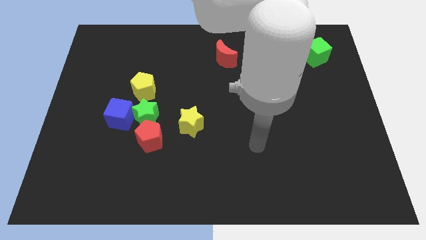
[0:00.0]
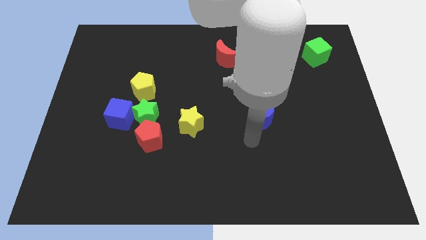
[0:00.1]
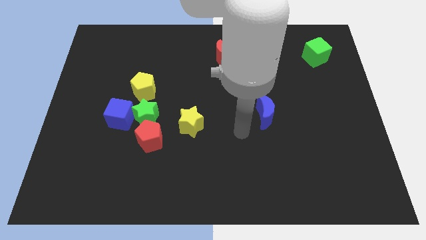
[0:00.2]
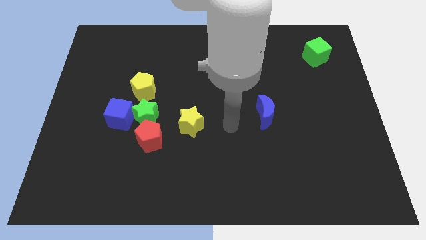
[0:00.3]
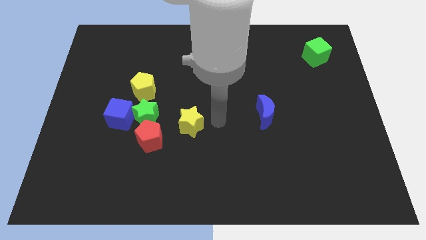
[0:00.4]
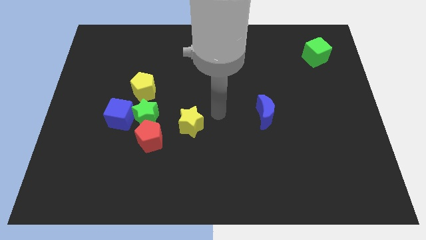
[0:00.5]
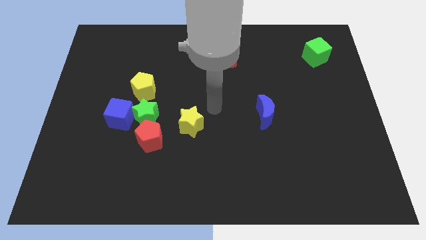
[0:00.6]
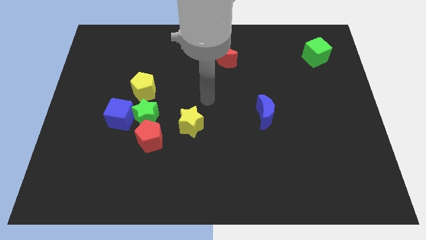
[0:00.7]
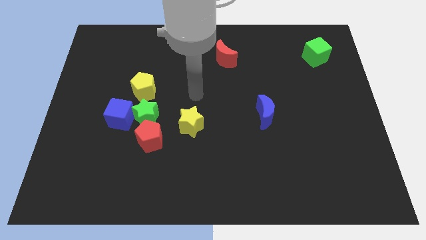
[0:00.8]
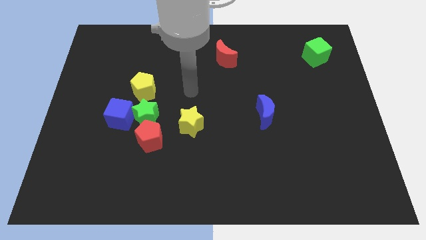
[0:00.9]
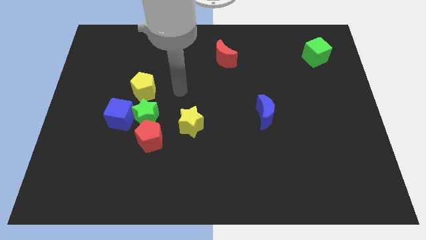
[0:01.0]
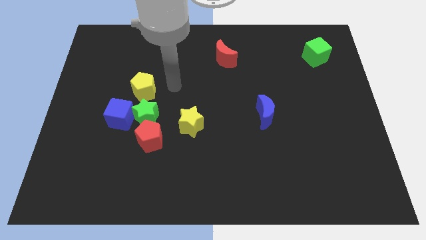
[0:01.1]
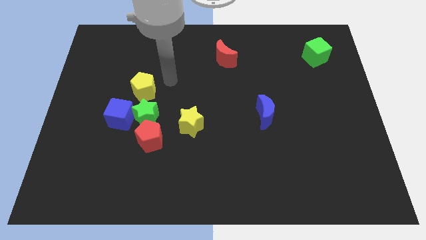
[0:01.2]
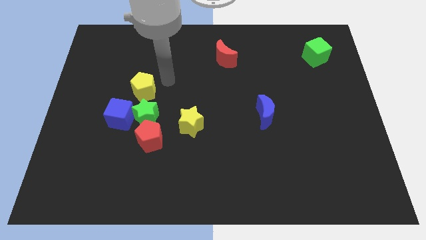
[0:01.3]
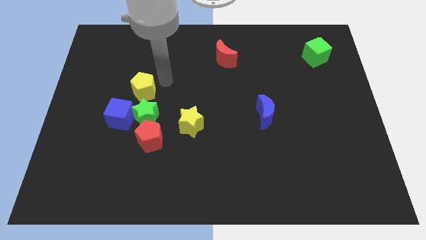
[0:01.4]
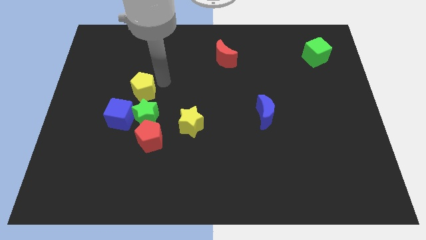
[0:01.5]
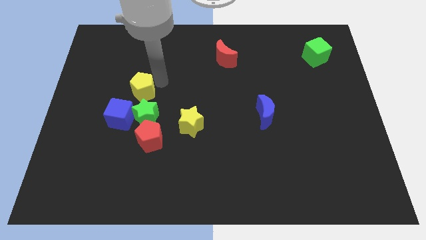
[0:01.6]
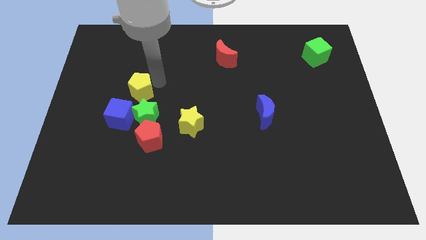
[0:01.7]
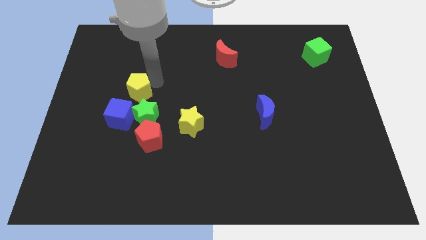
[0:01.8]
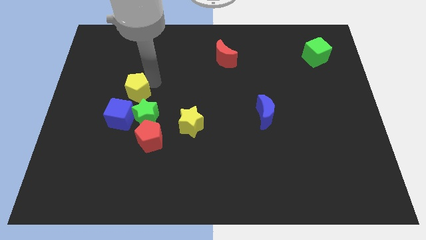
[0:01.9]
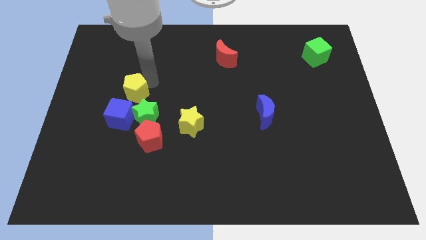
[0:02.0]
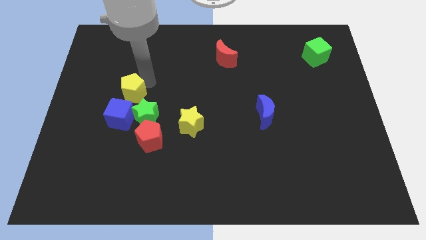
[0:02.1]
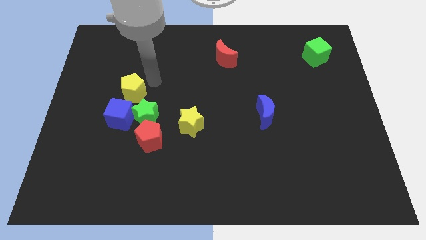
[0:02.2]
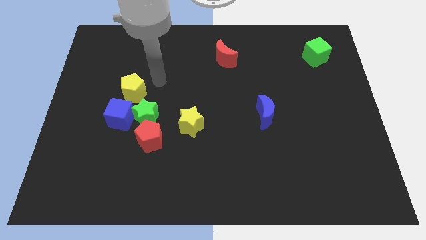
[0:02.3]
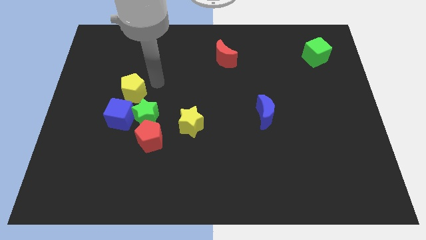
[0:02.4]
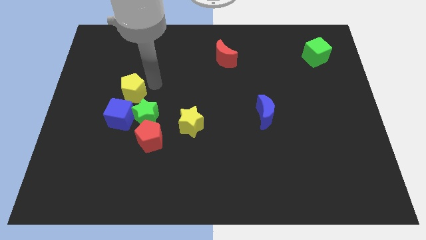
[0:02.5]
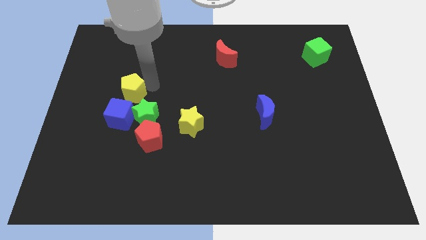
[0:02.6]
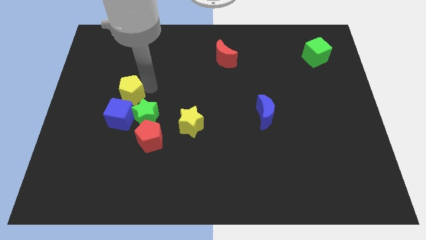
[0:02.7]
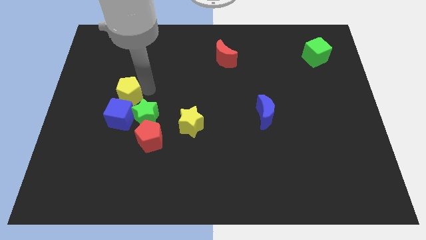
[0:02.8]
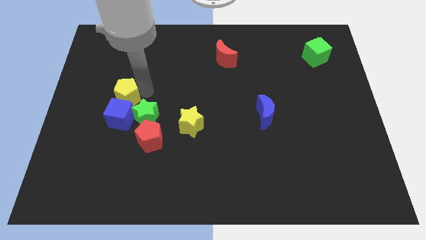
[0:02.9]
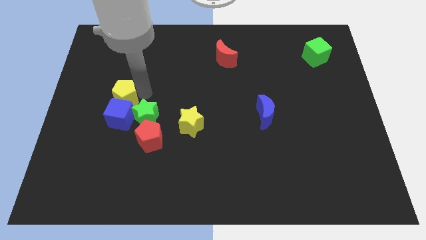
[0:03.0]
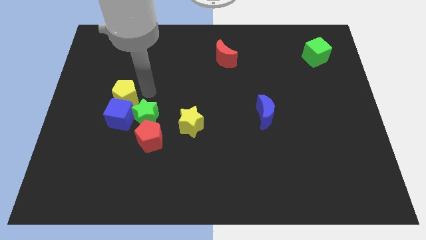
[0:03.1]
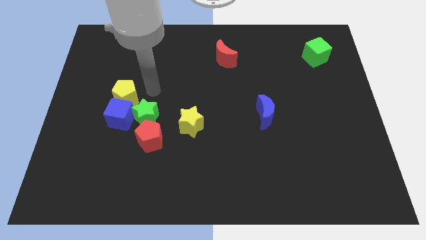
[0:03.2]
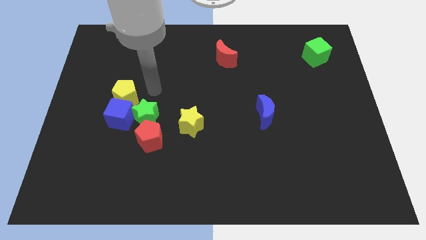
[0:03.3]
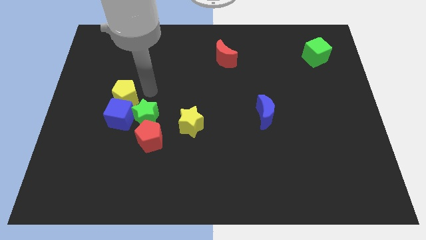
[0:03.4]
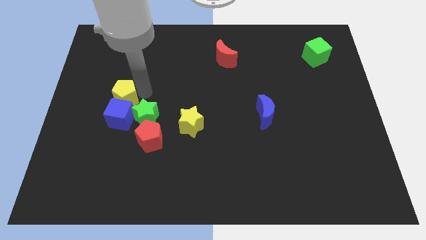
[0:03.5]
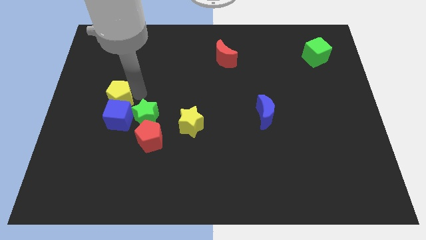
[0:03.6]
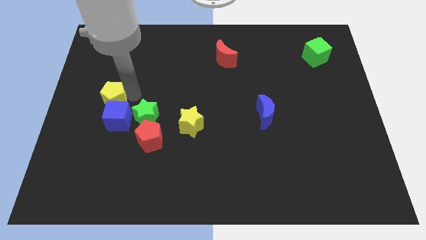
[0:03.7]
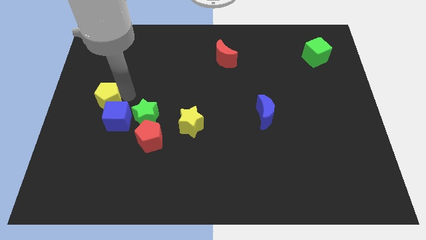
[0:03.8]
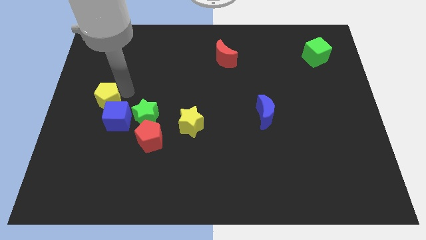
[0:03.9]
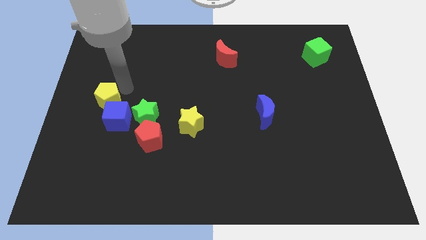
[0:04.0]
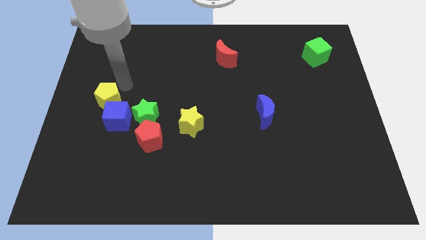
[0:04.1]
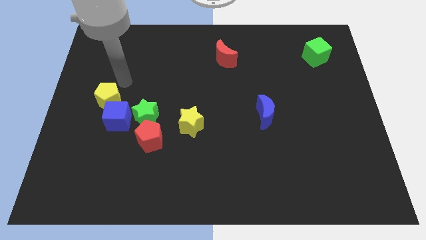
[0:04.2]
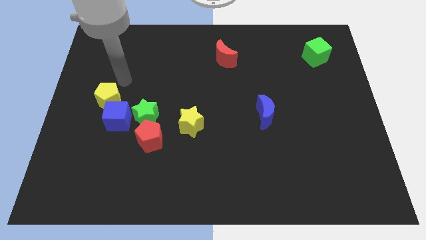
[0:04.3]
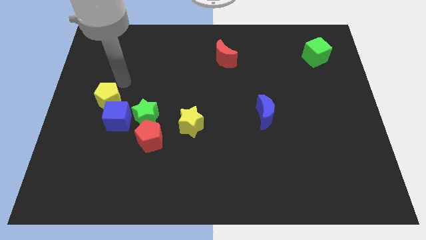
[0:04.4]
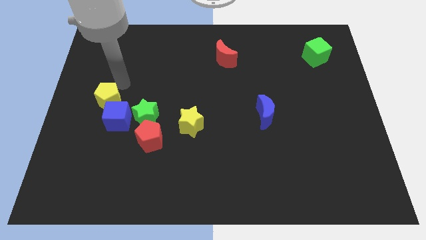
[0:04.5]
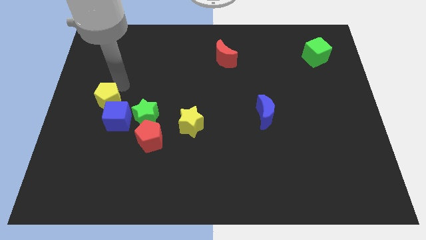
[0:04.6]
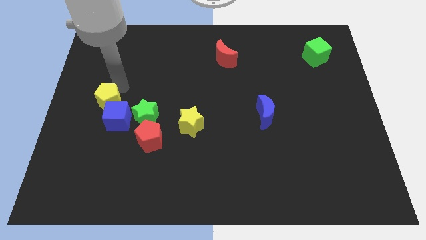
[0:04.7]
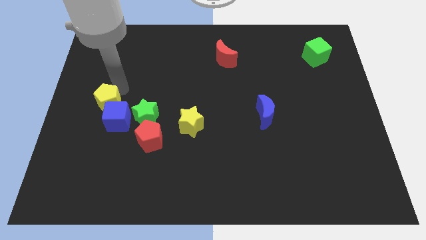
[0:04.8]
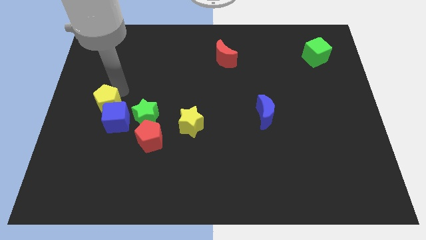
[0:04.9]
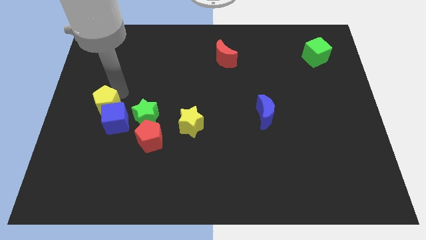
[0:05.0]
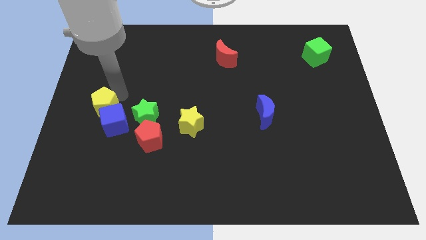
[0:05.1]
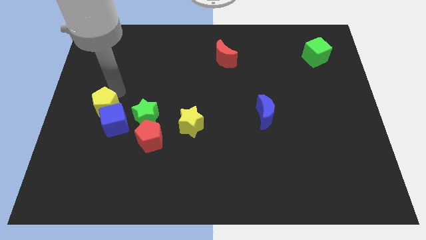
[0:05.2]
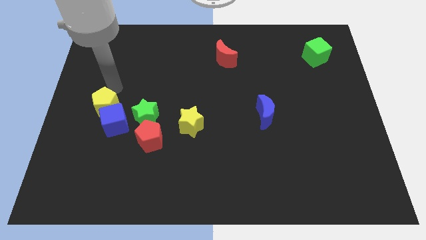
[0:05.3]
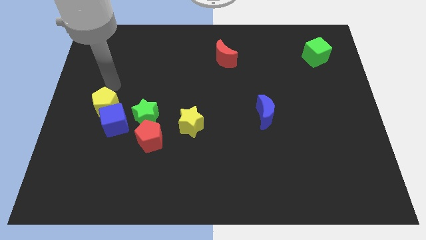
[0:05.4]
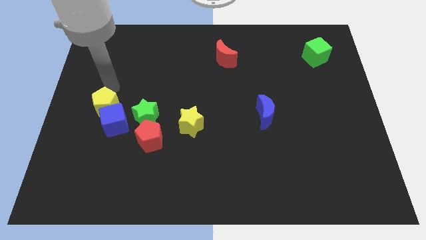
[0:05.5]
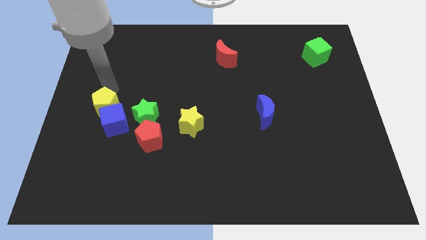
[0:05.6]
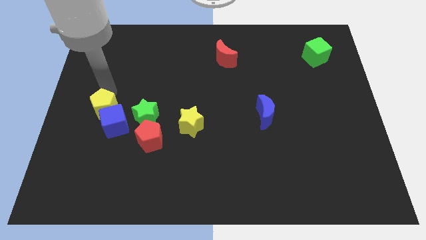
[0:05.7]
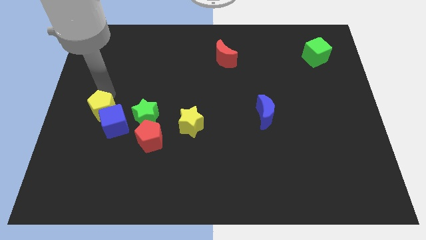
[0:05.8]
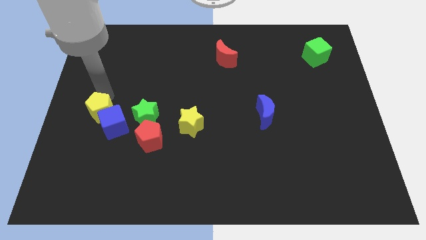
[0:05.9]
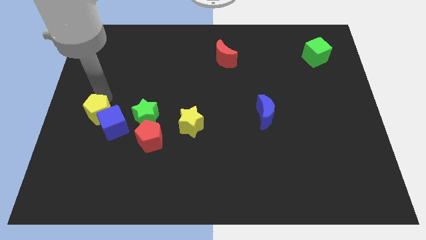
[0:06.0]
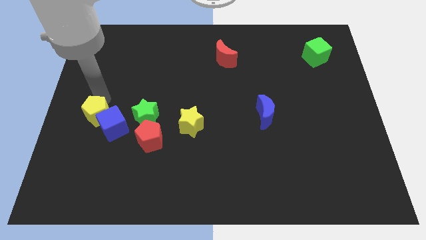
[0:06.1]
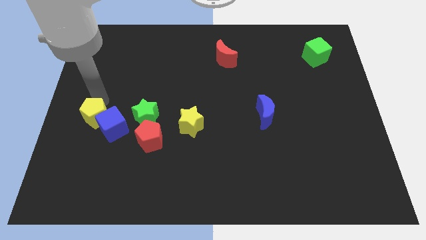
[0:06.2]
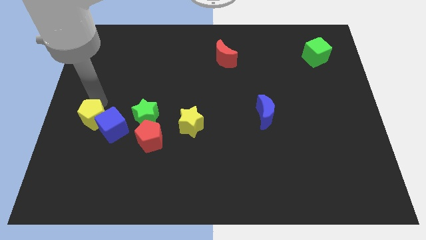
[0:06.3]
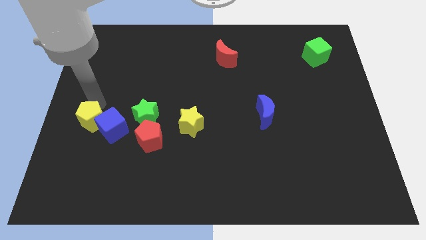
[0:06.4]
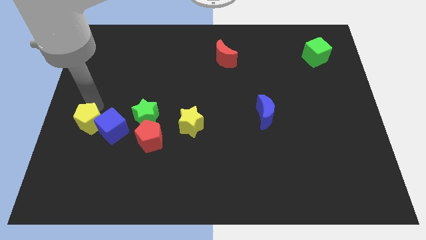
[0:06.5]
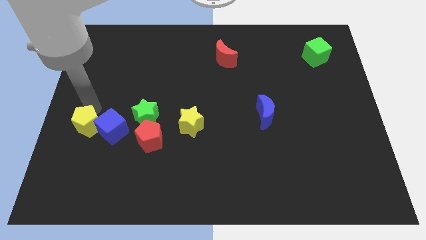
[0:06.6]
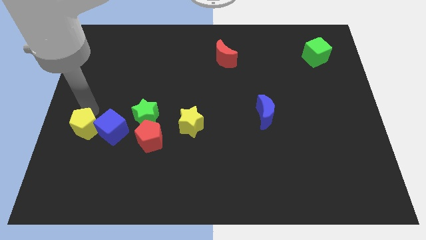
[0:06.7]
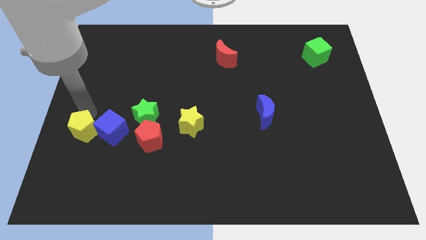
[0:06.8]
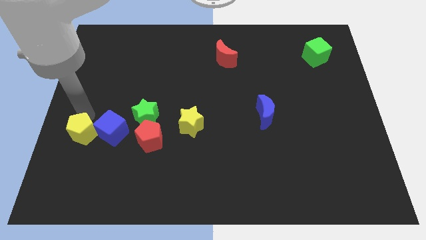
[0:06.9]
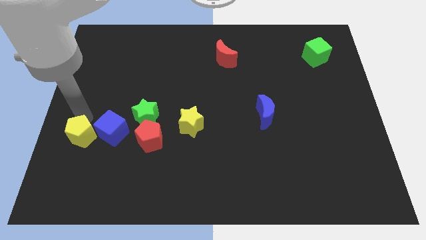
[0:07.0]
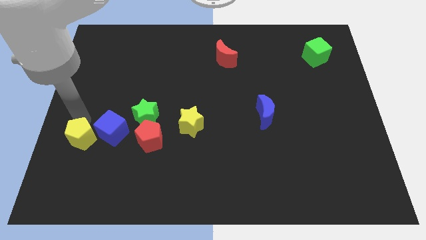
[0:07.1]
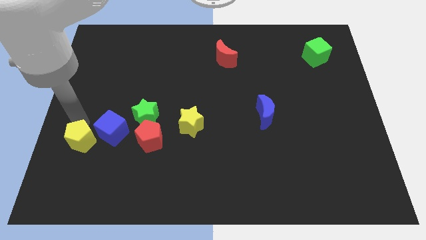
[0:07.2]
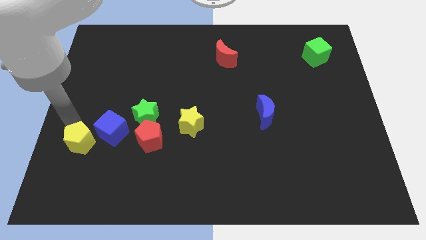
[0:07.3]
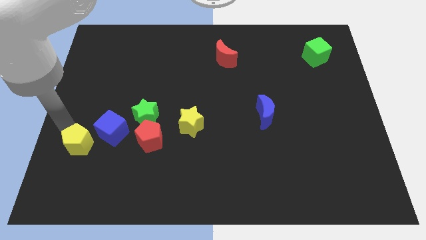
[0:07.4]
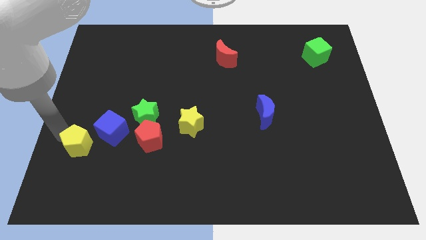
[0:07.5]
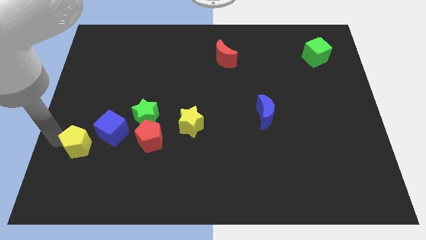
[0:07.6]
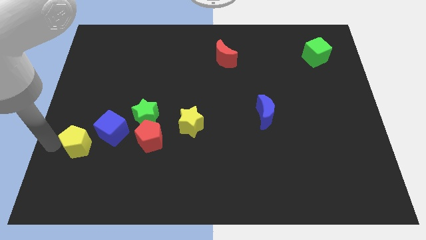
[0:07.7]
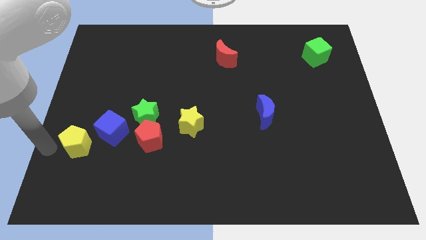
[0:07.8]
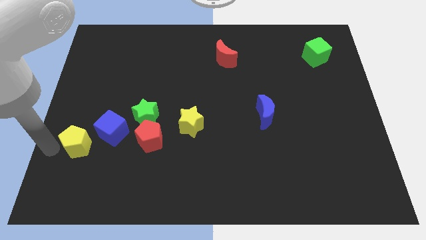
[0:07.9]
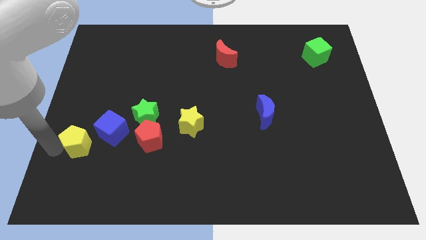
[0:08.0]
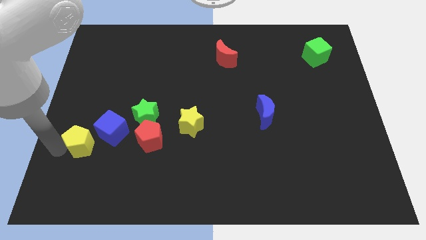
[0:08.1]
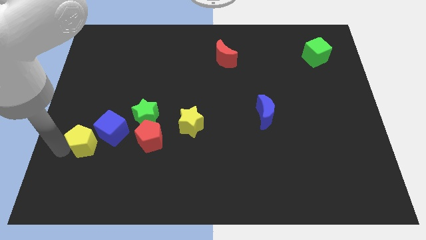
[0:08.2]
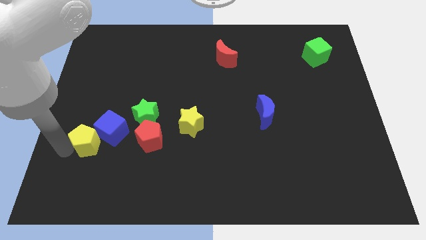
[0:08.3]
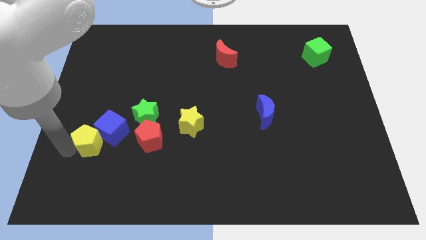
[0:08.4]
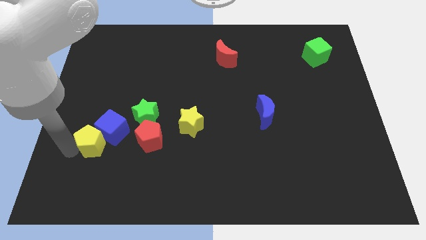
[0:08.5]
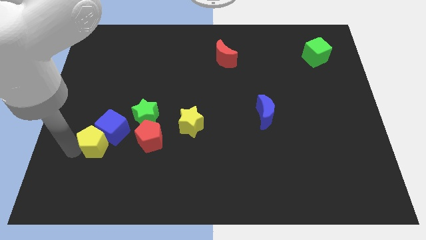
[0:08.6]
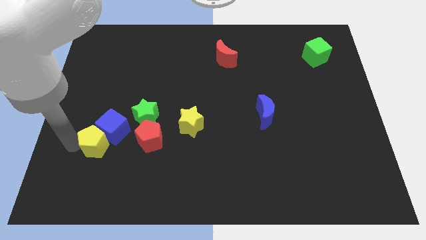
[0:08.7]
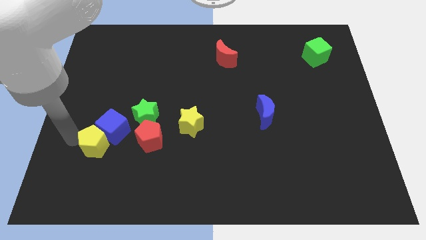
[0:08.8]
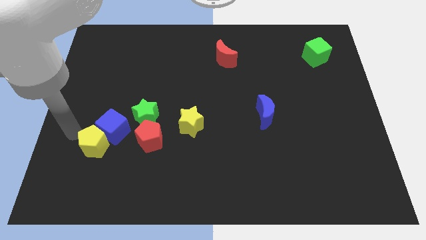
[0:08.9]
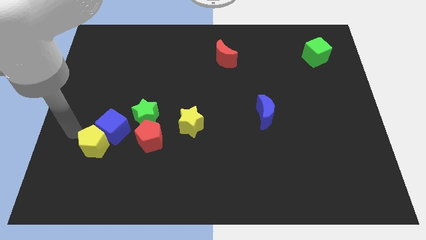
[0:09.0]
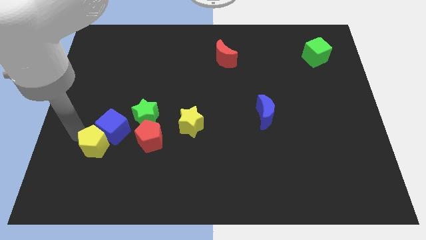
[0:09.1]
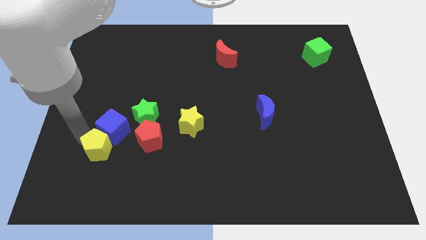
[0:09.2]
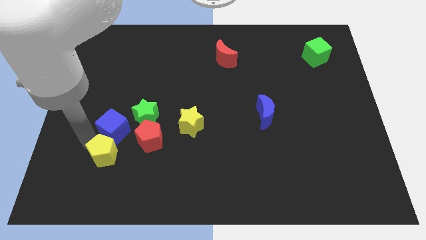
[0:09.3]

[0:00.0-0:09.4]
push the yellow pentagon to the bottom left of the red pentagon
